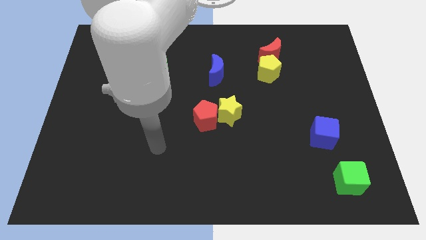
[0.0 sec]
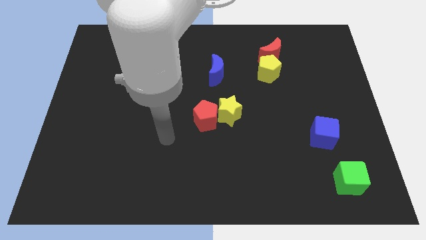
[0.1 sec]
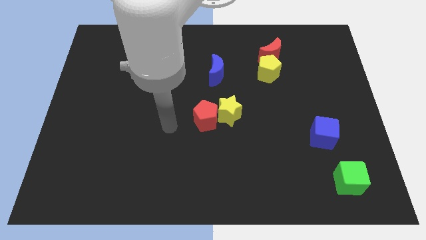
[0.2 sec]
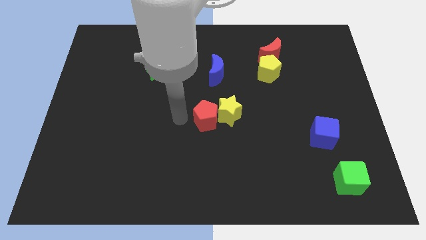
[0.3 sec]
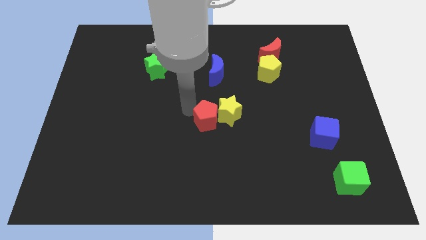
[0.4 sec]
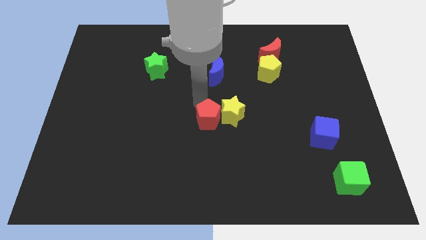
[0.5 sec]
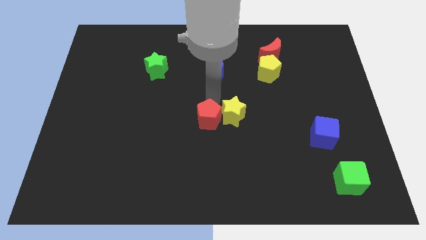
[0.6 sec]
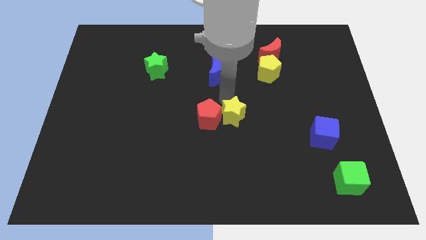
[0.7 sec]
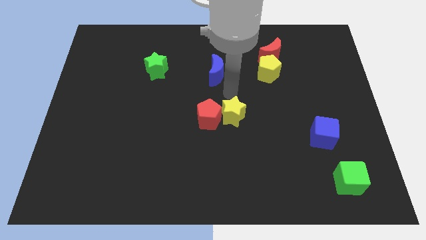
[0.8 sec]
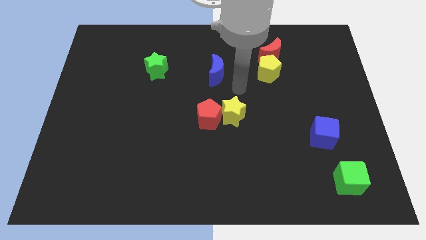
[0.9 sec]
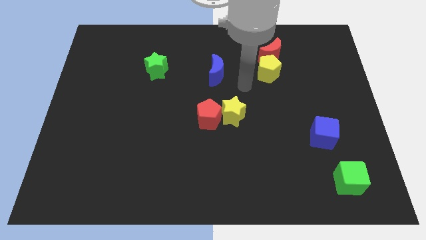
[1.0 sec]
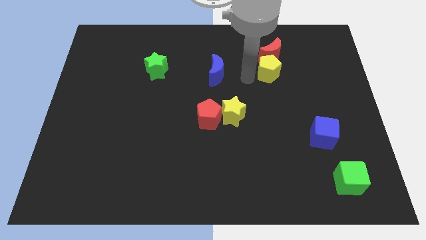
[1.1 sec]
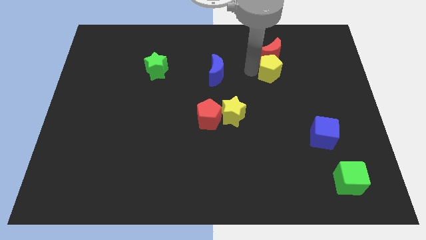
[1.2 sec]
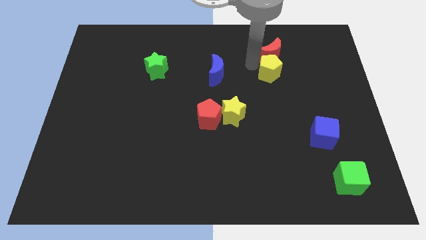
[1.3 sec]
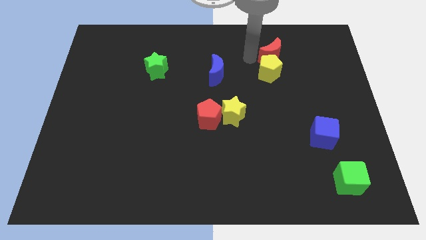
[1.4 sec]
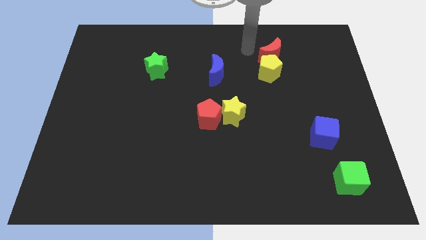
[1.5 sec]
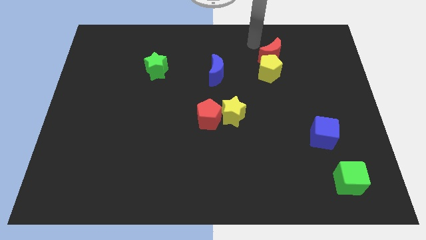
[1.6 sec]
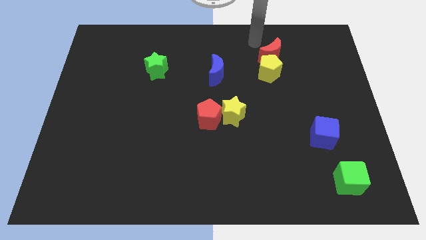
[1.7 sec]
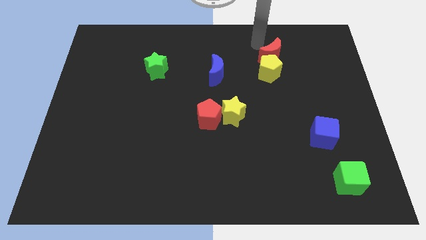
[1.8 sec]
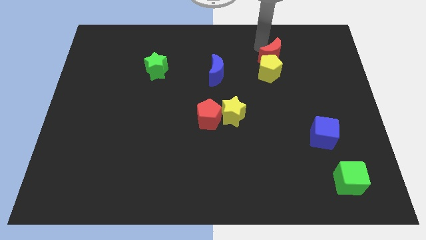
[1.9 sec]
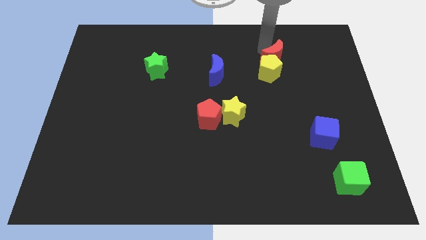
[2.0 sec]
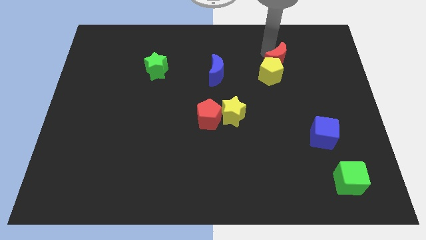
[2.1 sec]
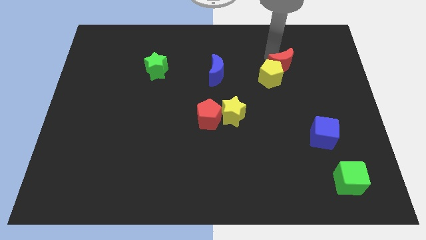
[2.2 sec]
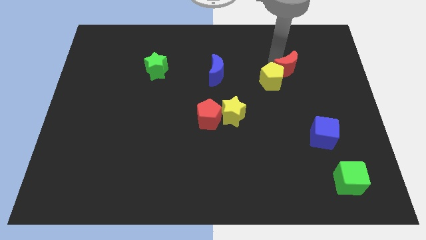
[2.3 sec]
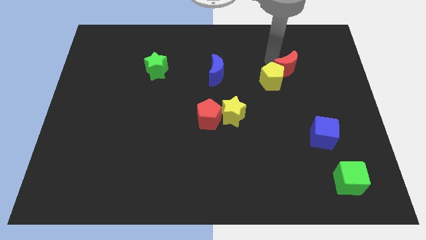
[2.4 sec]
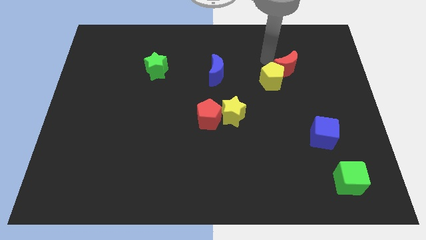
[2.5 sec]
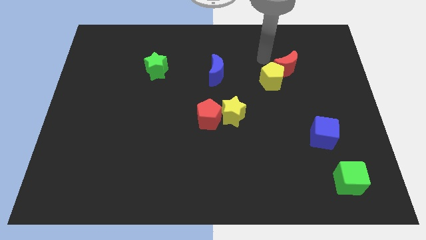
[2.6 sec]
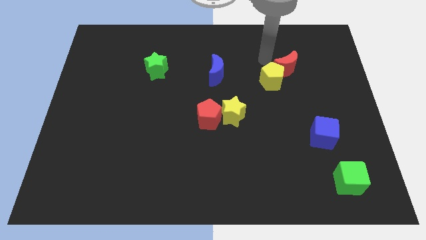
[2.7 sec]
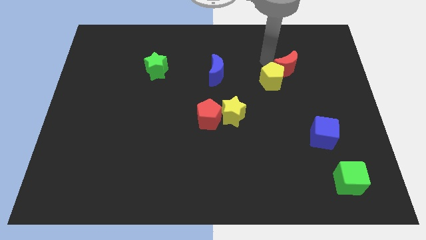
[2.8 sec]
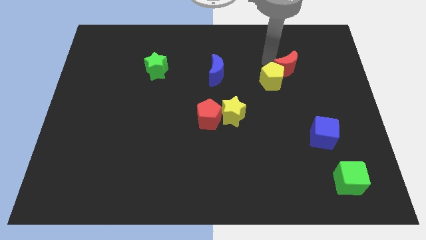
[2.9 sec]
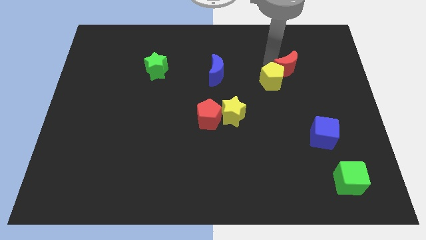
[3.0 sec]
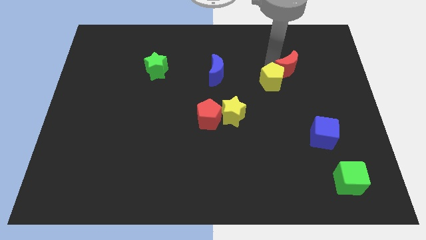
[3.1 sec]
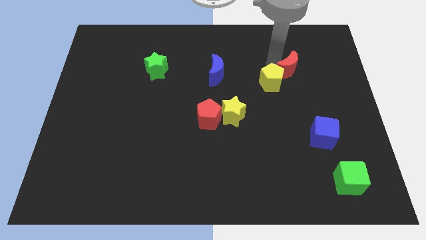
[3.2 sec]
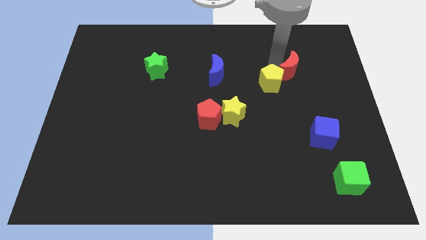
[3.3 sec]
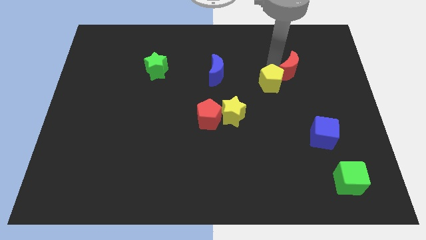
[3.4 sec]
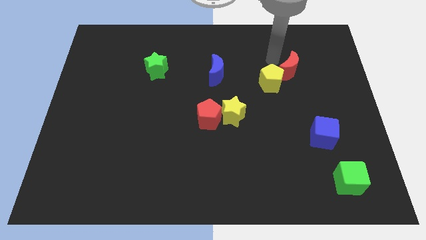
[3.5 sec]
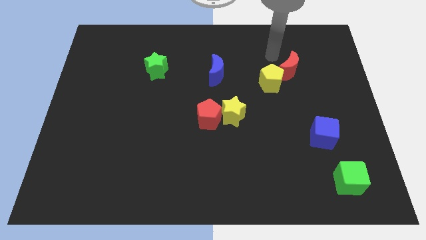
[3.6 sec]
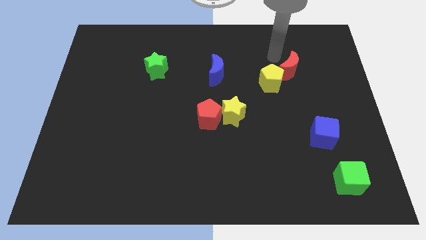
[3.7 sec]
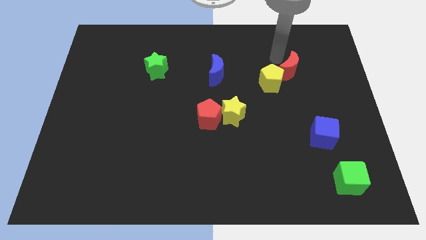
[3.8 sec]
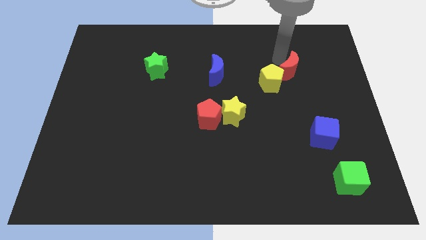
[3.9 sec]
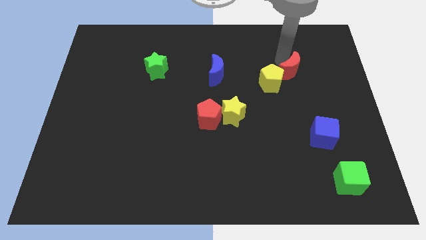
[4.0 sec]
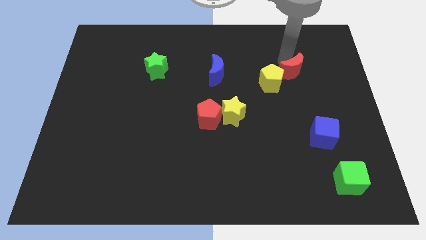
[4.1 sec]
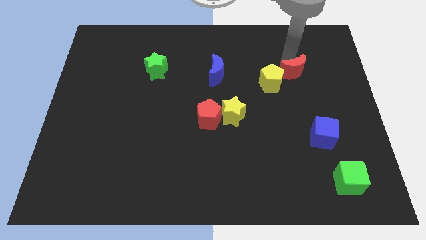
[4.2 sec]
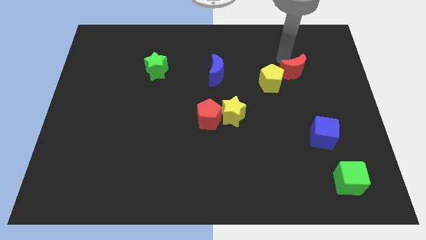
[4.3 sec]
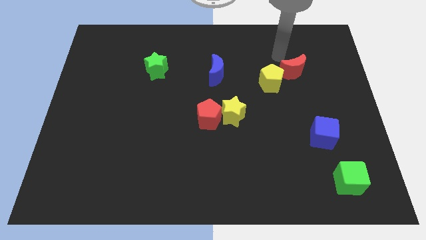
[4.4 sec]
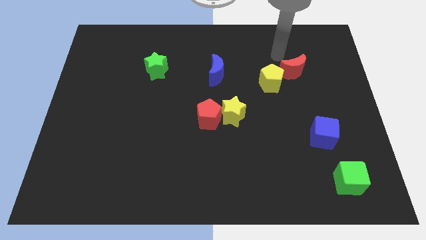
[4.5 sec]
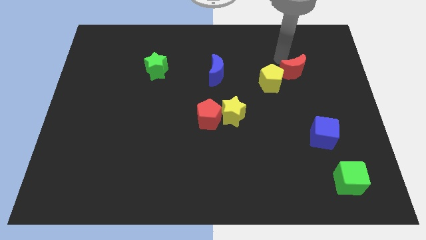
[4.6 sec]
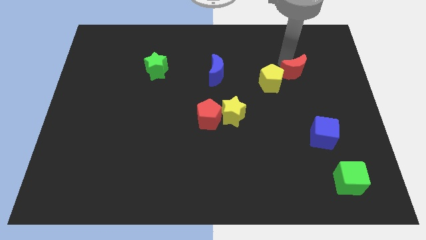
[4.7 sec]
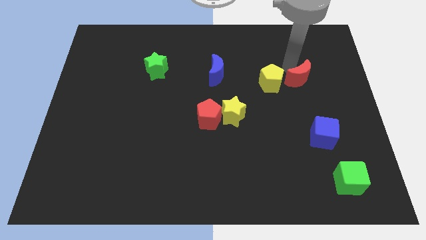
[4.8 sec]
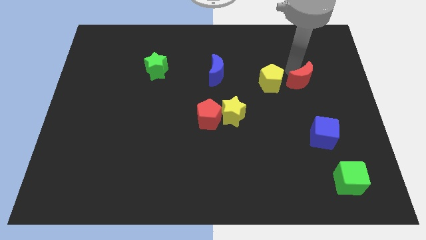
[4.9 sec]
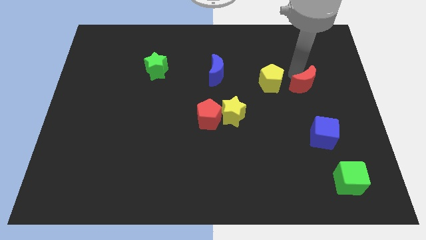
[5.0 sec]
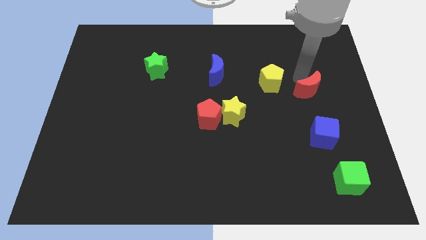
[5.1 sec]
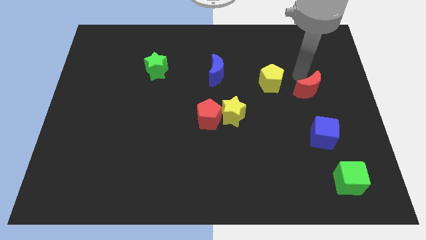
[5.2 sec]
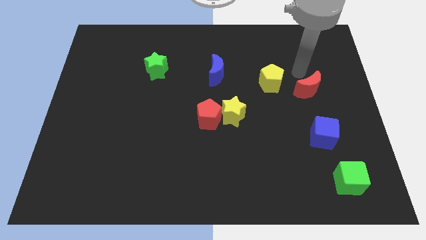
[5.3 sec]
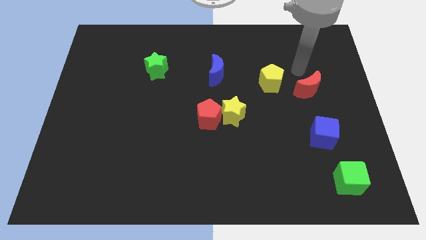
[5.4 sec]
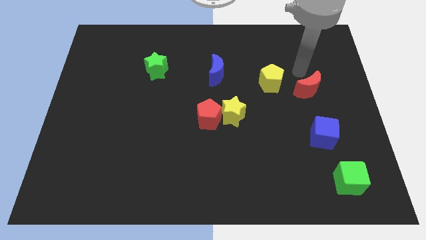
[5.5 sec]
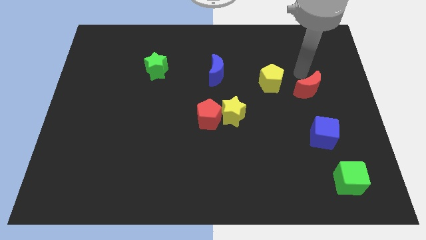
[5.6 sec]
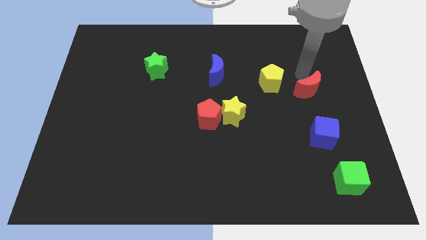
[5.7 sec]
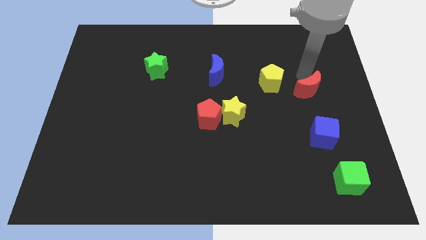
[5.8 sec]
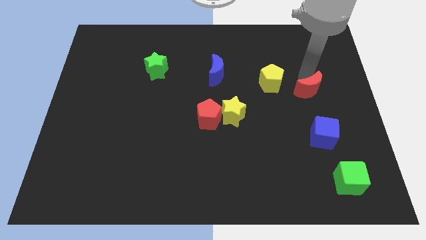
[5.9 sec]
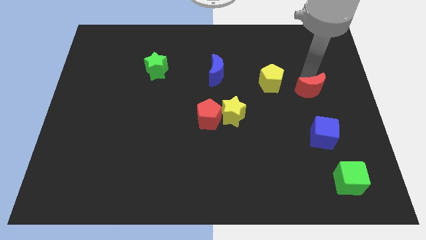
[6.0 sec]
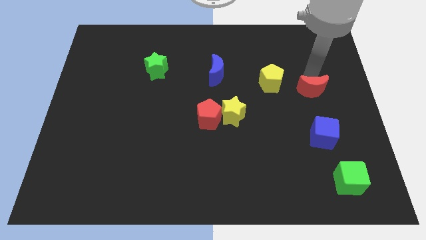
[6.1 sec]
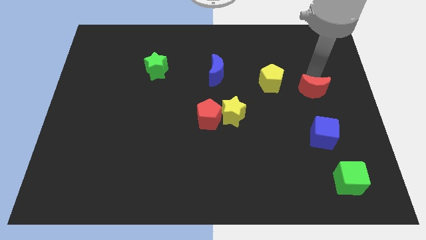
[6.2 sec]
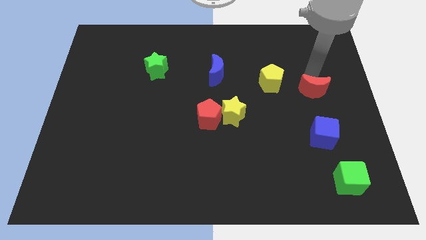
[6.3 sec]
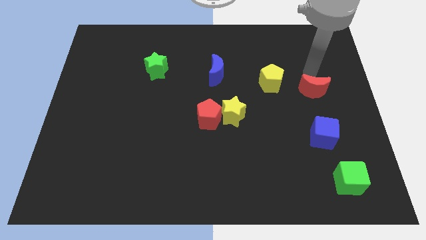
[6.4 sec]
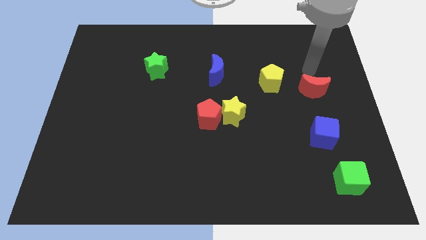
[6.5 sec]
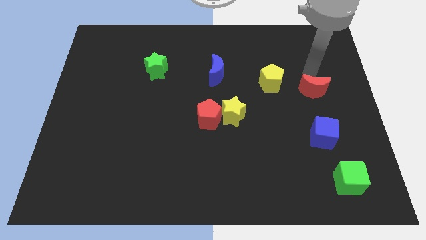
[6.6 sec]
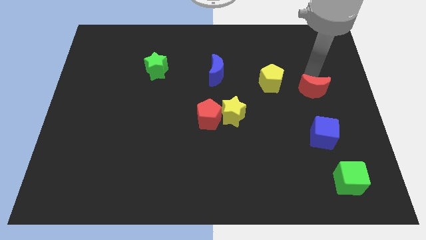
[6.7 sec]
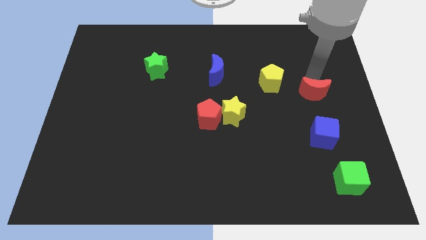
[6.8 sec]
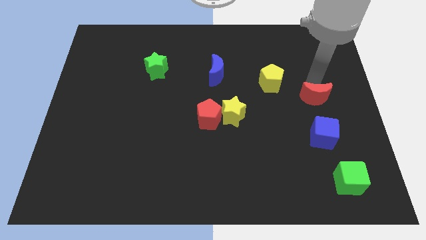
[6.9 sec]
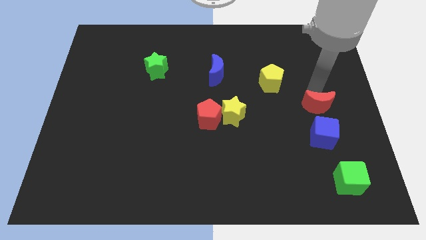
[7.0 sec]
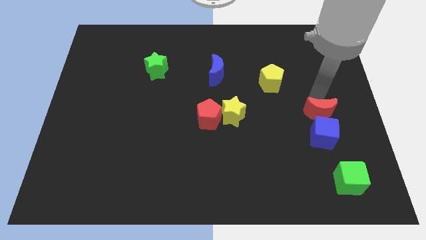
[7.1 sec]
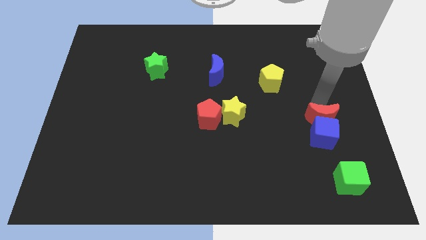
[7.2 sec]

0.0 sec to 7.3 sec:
push the red moon close to the blue cube

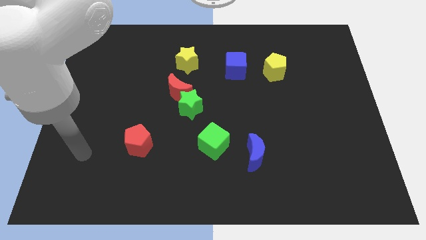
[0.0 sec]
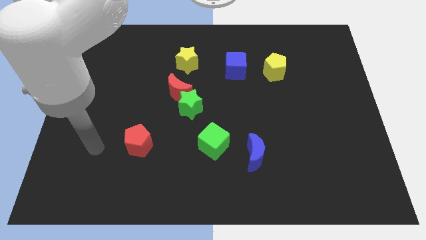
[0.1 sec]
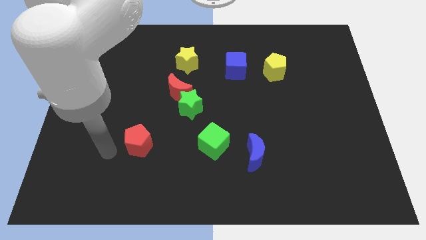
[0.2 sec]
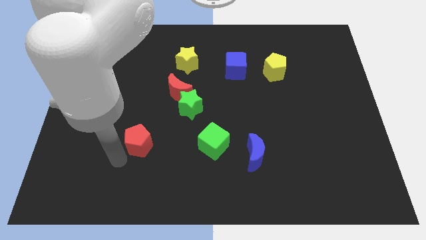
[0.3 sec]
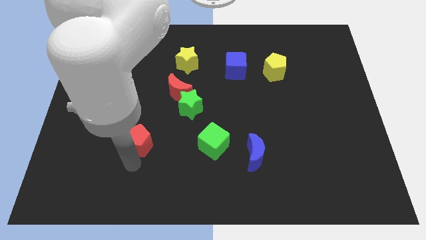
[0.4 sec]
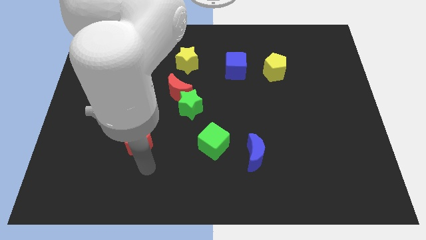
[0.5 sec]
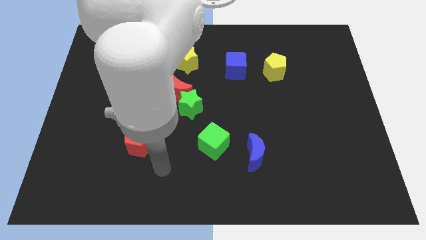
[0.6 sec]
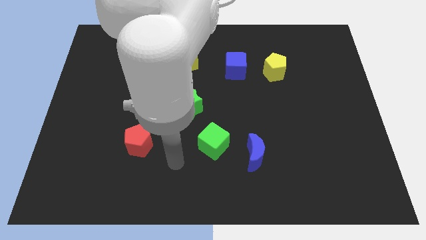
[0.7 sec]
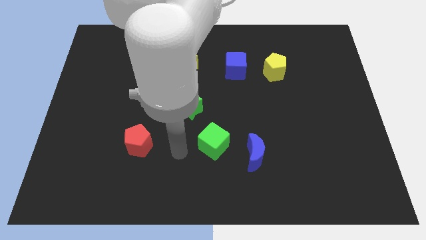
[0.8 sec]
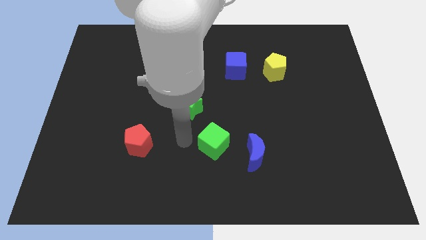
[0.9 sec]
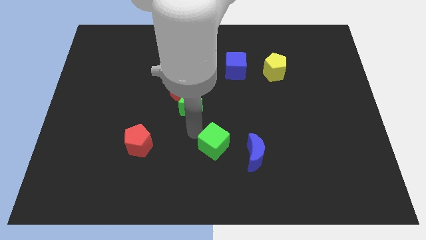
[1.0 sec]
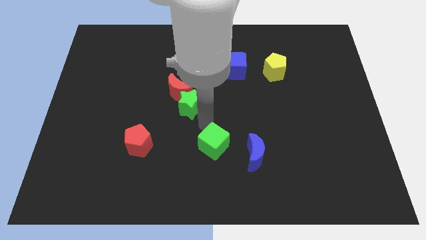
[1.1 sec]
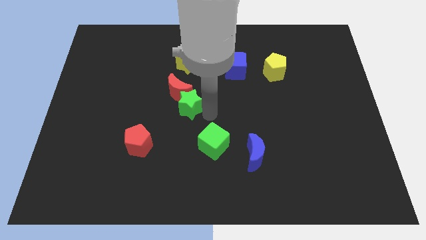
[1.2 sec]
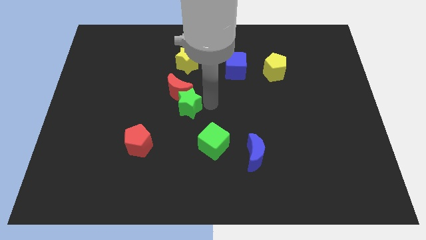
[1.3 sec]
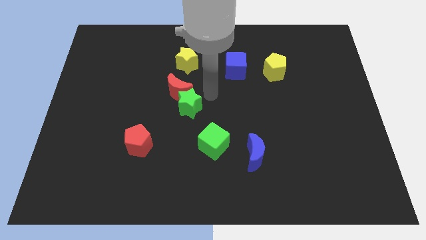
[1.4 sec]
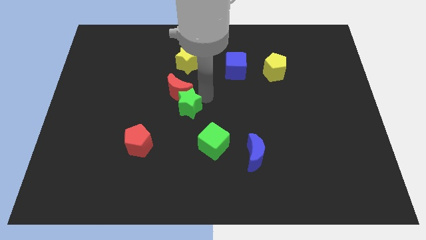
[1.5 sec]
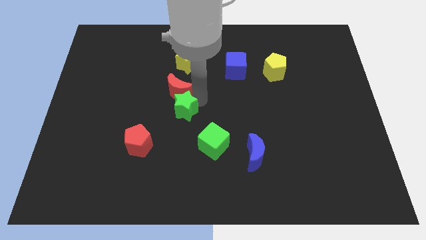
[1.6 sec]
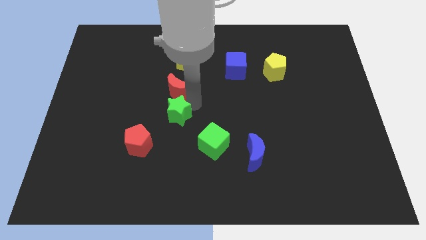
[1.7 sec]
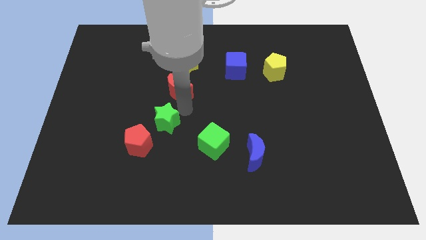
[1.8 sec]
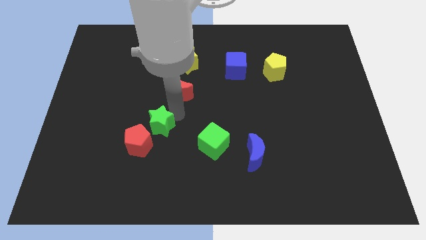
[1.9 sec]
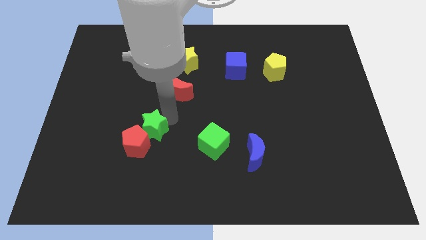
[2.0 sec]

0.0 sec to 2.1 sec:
push the green star next to the red pentagon
